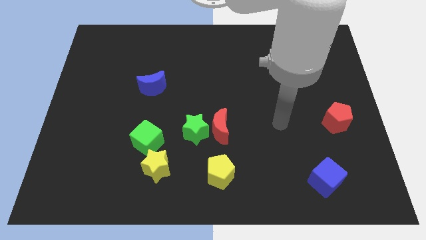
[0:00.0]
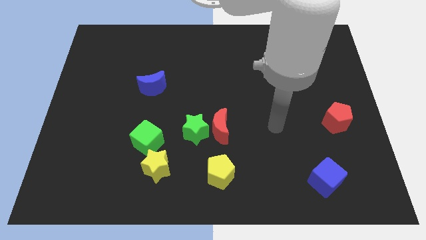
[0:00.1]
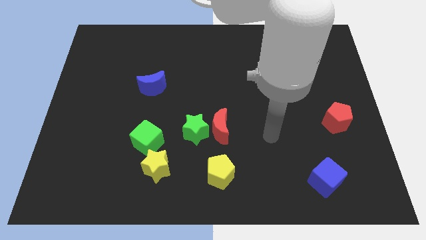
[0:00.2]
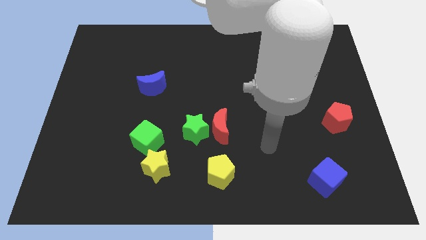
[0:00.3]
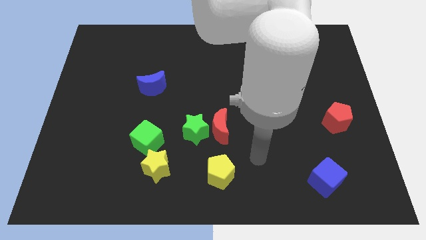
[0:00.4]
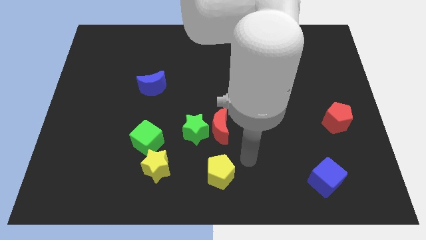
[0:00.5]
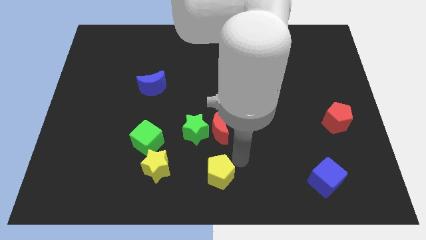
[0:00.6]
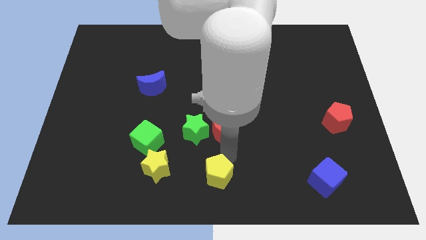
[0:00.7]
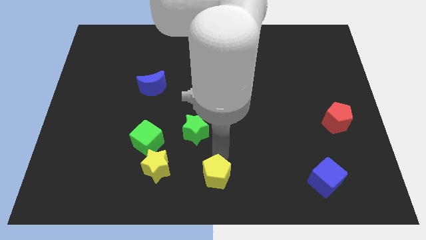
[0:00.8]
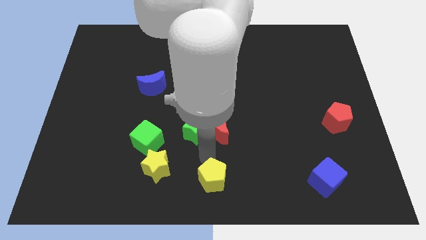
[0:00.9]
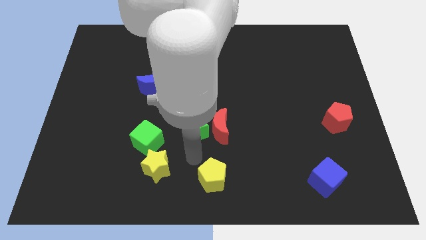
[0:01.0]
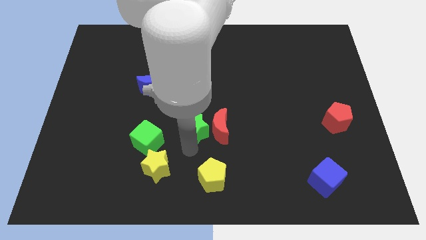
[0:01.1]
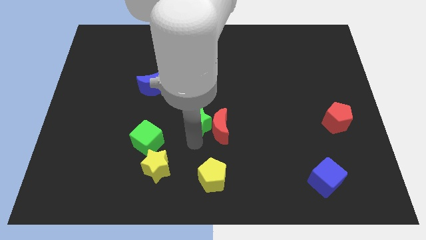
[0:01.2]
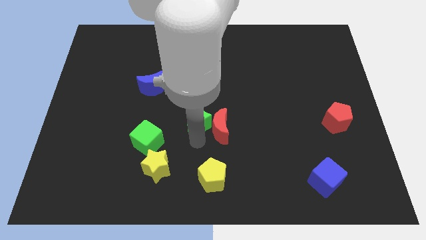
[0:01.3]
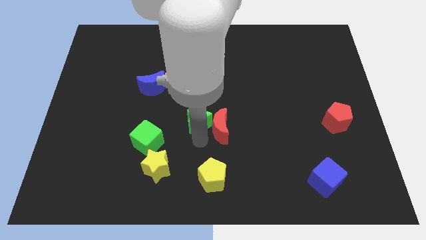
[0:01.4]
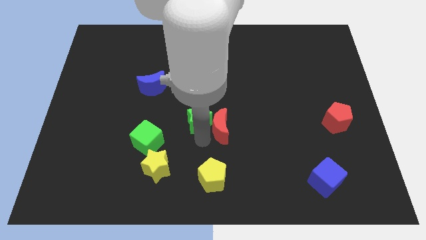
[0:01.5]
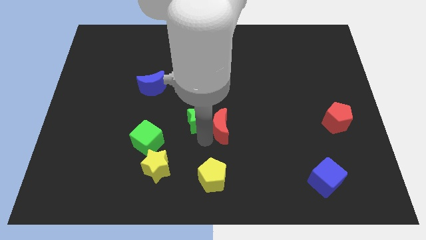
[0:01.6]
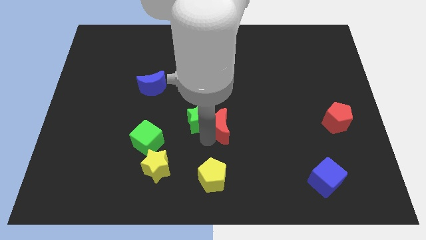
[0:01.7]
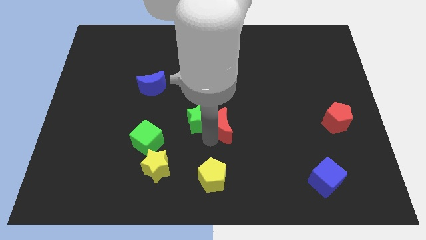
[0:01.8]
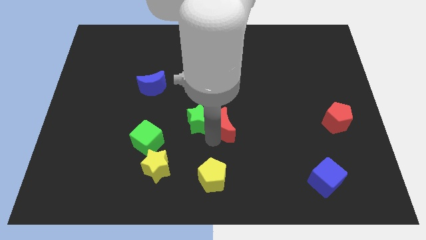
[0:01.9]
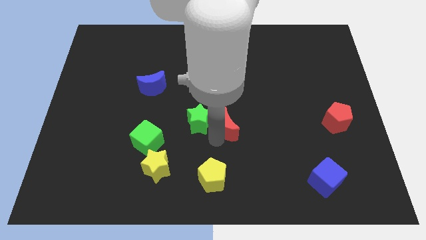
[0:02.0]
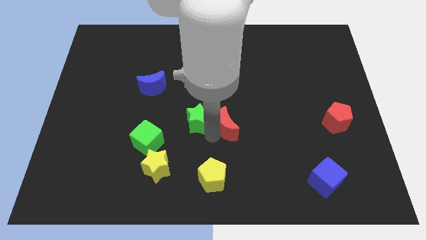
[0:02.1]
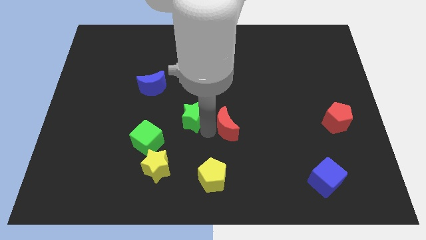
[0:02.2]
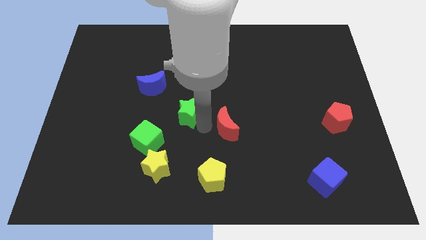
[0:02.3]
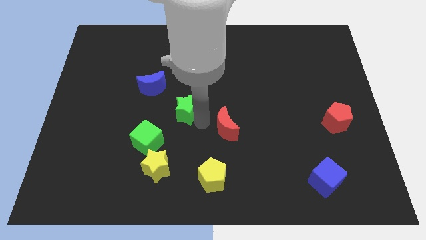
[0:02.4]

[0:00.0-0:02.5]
move the red moon away from the green star

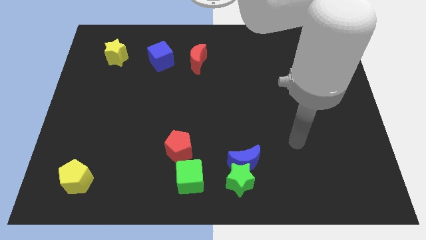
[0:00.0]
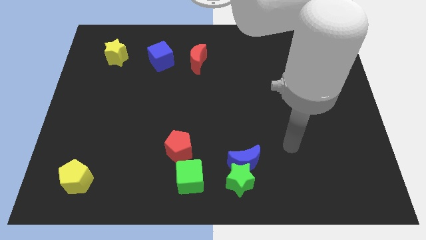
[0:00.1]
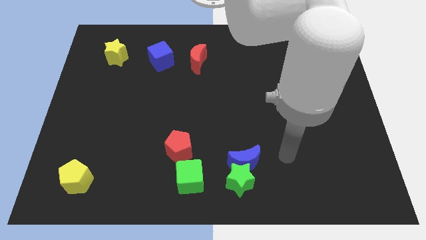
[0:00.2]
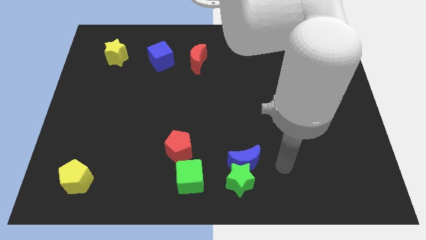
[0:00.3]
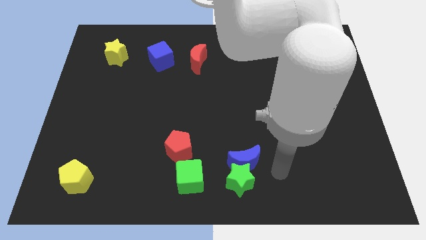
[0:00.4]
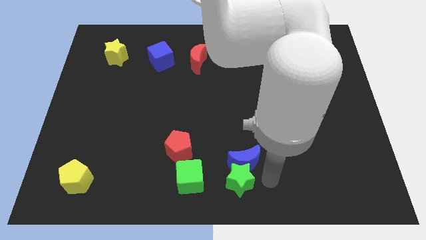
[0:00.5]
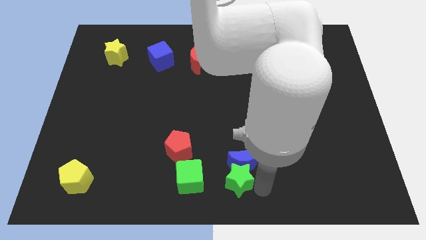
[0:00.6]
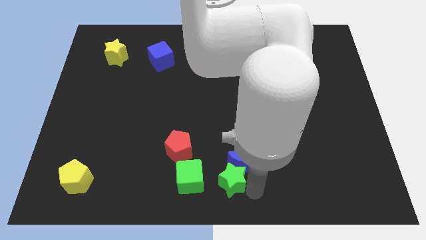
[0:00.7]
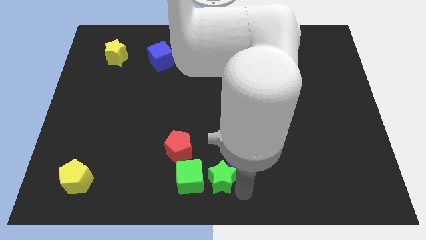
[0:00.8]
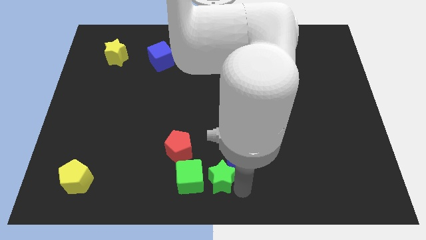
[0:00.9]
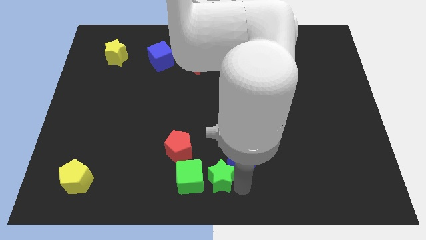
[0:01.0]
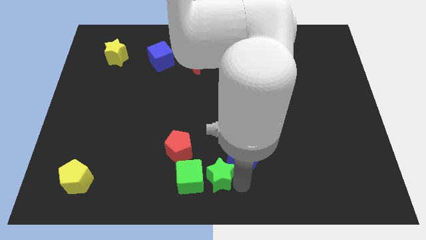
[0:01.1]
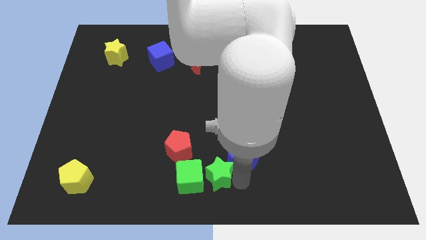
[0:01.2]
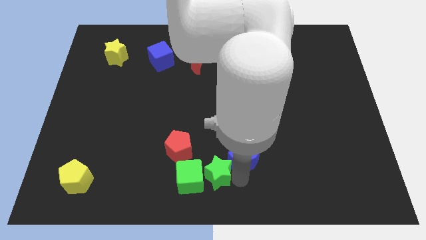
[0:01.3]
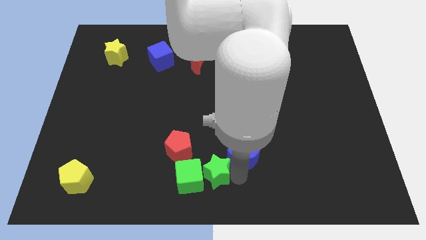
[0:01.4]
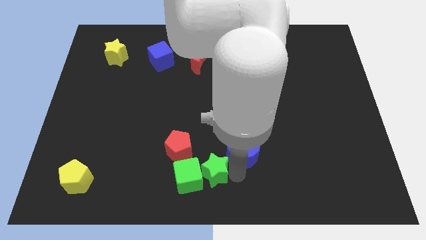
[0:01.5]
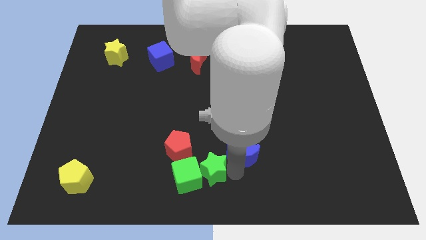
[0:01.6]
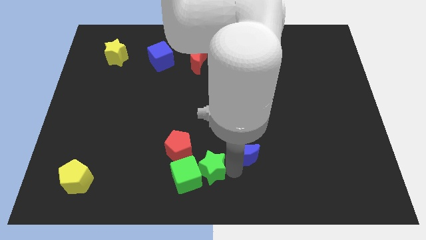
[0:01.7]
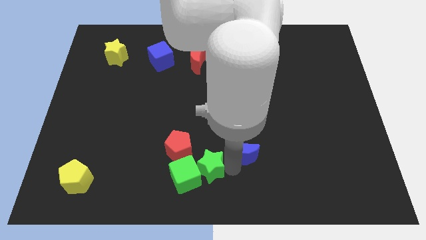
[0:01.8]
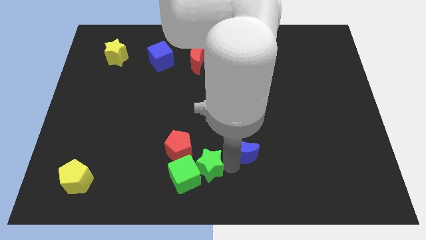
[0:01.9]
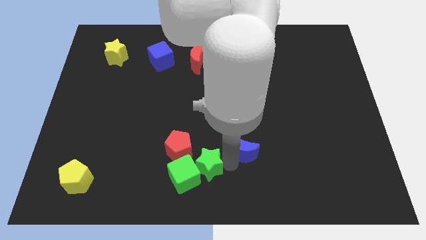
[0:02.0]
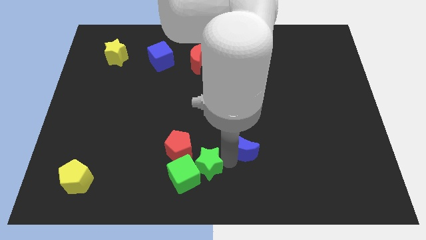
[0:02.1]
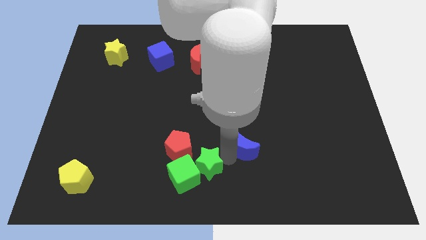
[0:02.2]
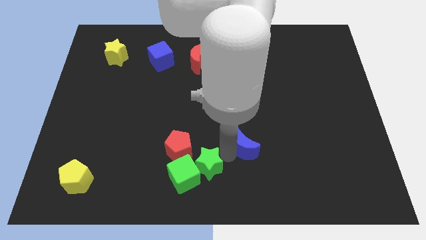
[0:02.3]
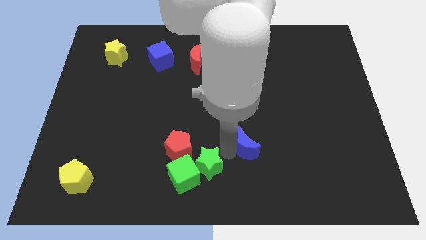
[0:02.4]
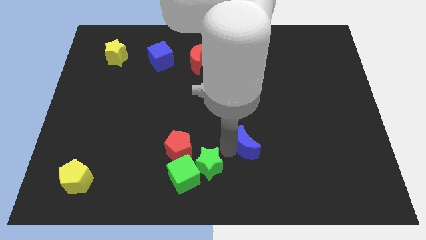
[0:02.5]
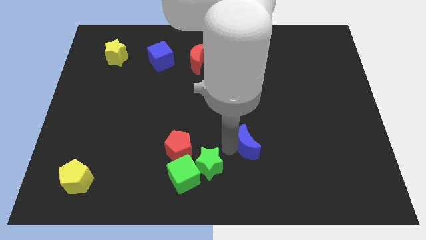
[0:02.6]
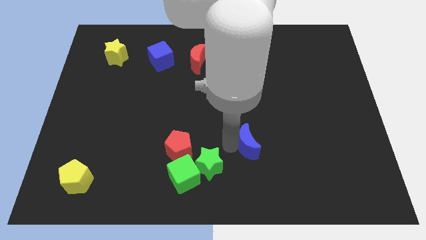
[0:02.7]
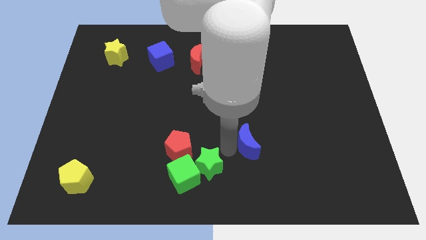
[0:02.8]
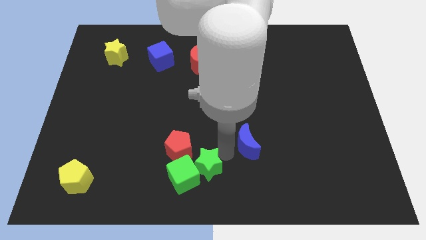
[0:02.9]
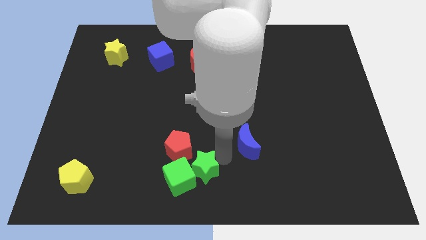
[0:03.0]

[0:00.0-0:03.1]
separate the blue moon from the green star

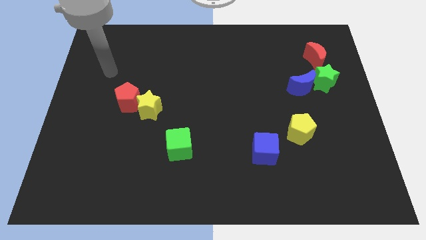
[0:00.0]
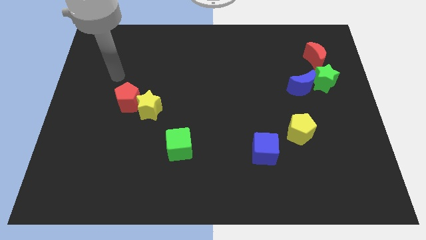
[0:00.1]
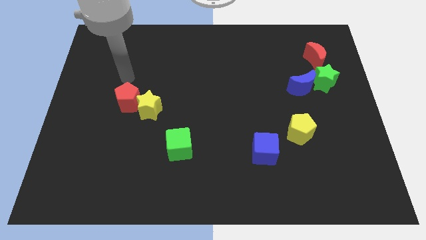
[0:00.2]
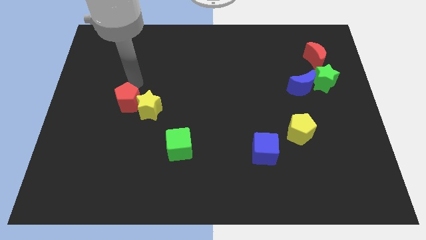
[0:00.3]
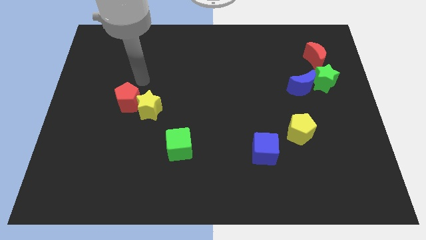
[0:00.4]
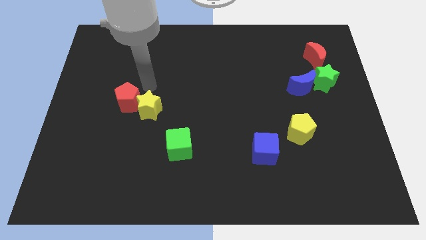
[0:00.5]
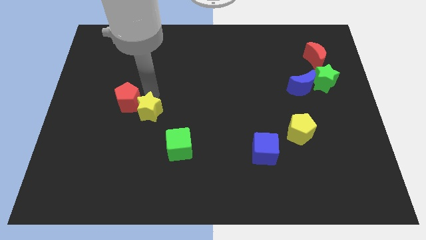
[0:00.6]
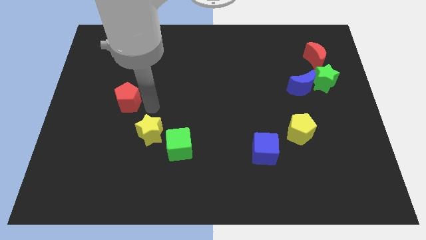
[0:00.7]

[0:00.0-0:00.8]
separate the red pentagon from the yellow star

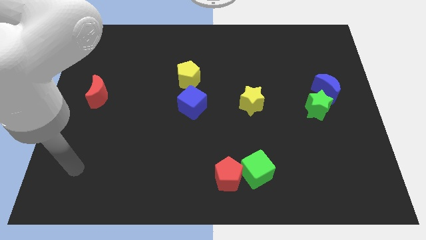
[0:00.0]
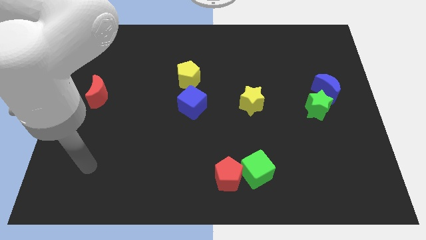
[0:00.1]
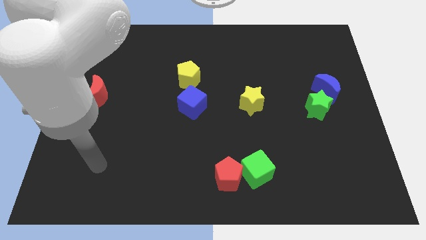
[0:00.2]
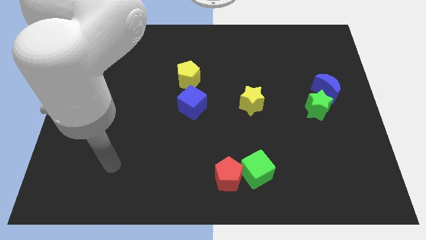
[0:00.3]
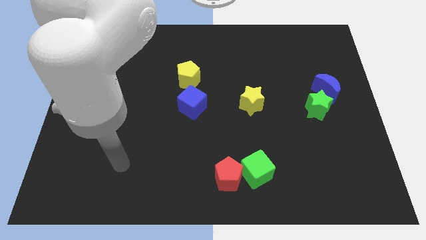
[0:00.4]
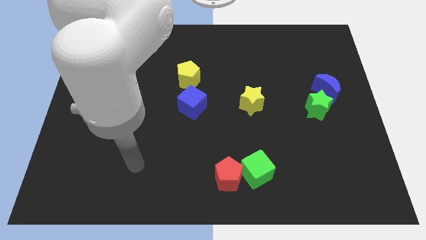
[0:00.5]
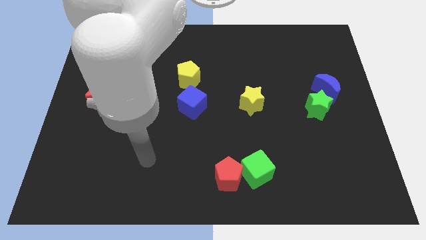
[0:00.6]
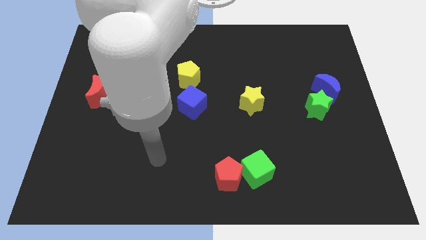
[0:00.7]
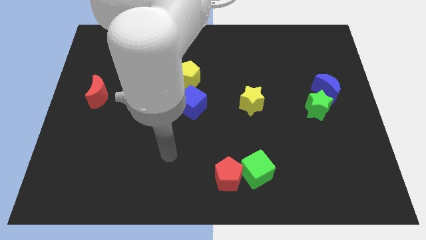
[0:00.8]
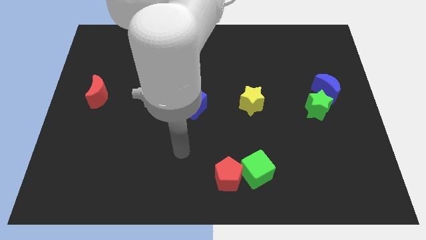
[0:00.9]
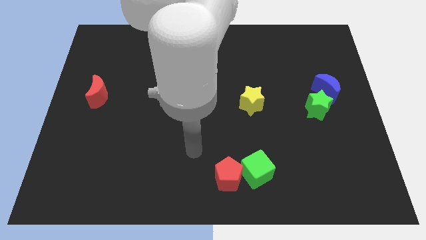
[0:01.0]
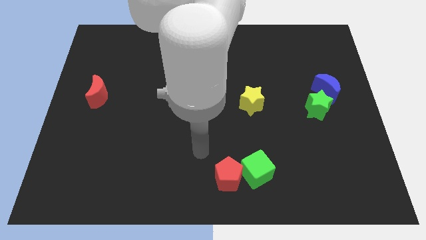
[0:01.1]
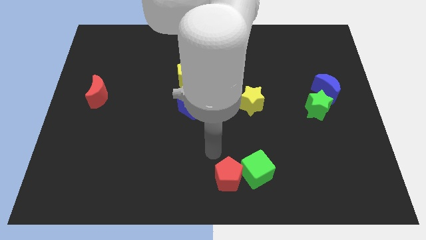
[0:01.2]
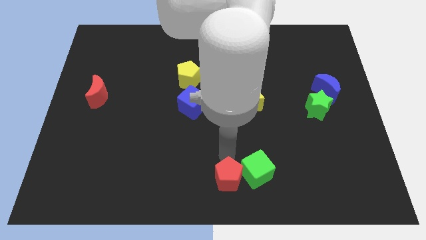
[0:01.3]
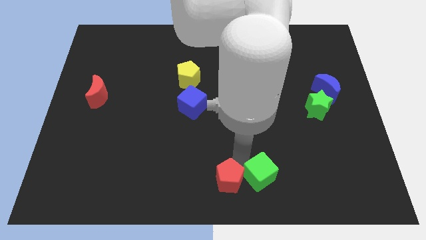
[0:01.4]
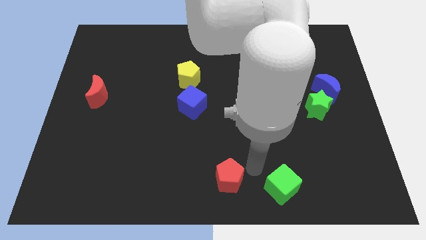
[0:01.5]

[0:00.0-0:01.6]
move the red pentagon away from the green cube

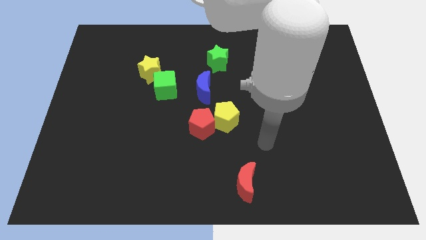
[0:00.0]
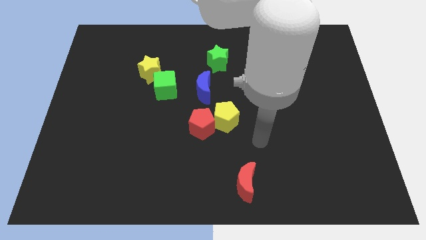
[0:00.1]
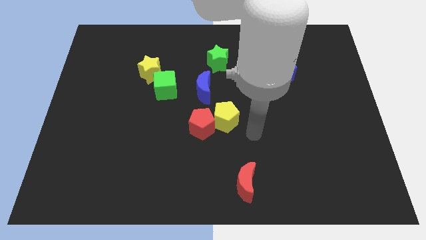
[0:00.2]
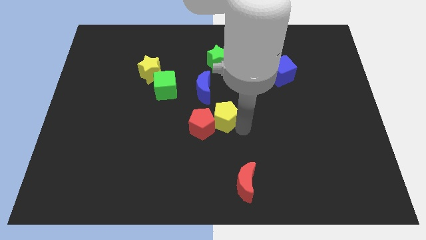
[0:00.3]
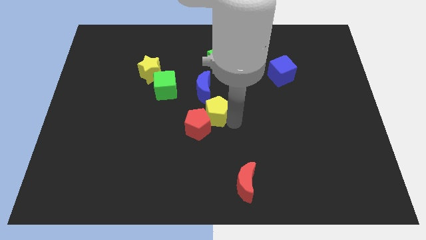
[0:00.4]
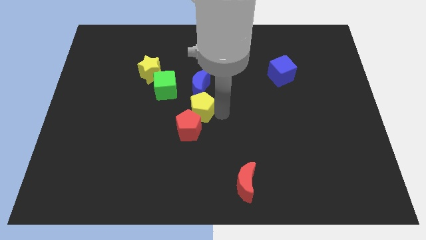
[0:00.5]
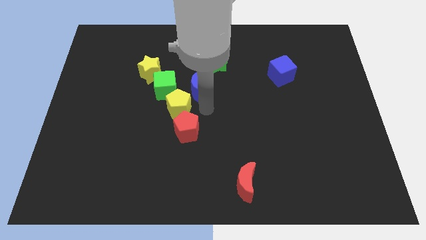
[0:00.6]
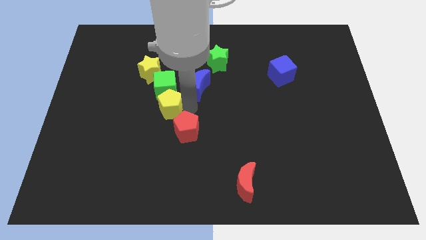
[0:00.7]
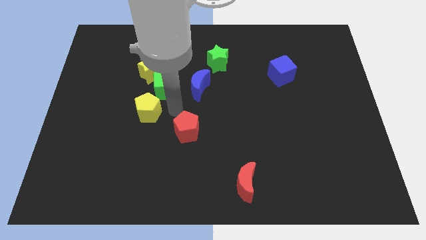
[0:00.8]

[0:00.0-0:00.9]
separate the red pentagon from the yellow pentagon

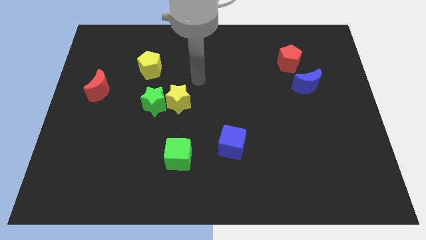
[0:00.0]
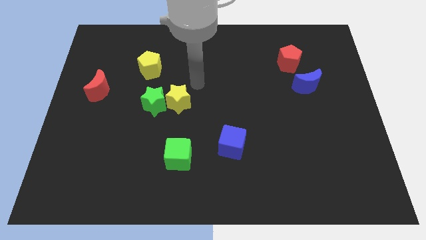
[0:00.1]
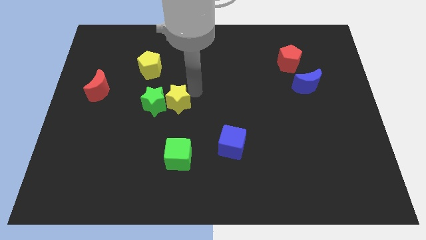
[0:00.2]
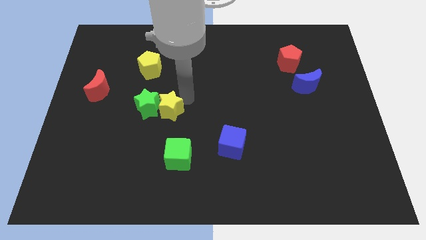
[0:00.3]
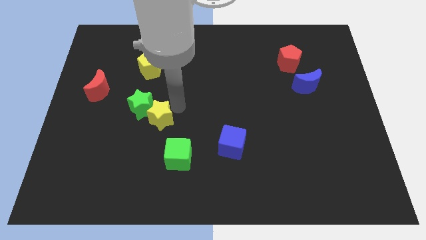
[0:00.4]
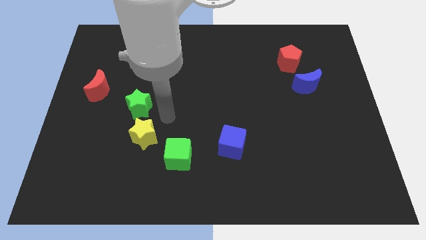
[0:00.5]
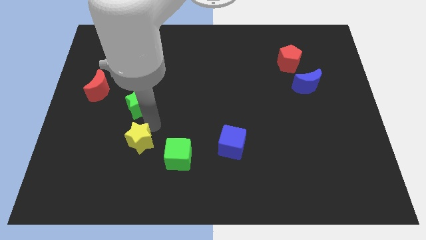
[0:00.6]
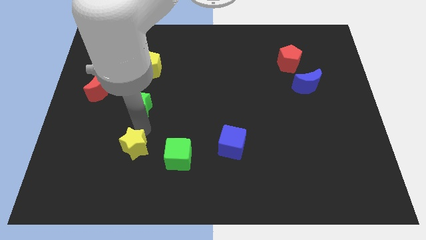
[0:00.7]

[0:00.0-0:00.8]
pull the green star apart from the yellow star
